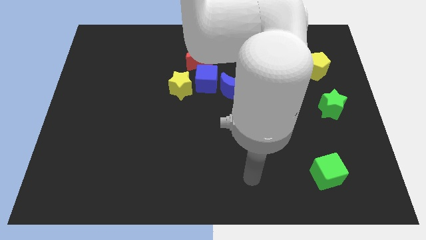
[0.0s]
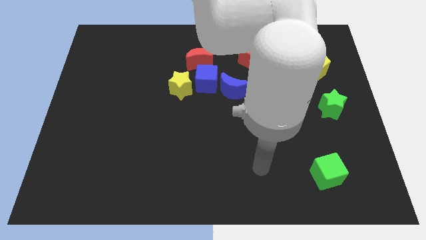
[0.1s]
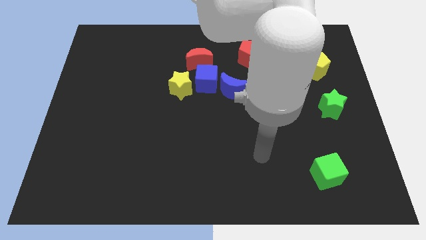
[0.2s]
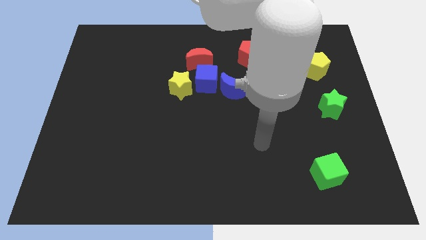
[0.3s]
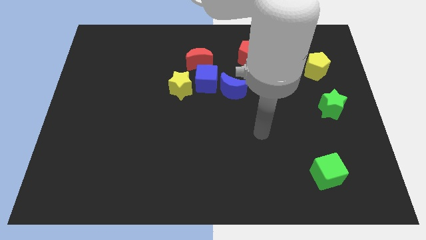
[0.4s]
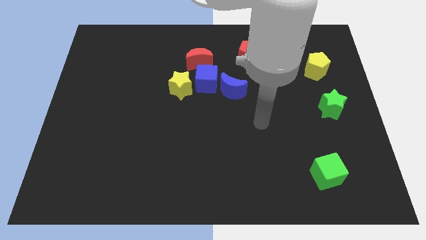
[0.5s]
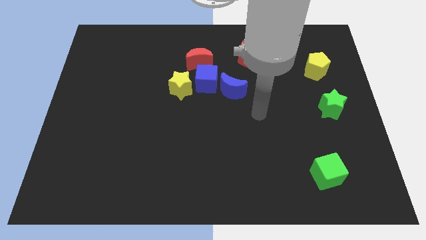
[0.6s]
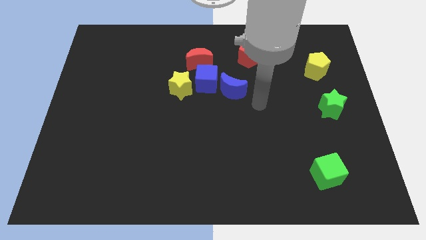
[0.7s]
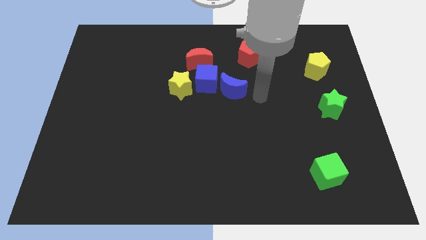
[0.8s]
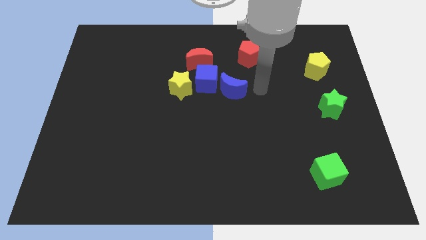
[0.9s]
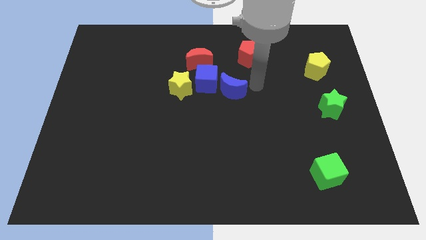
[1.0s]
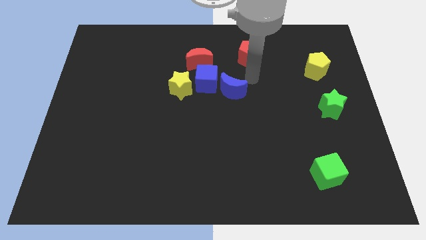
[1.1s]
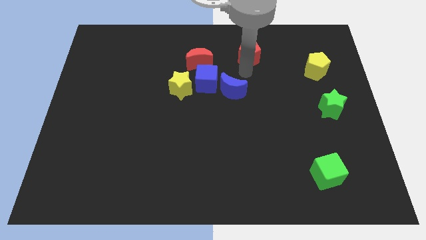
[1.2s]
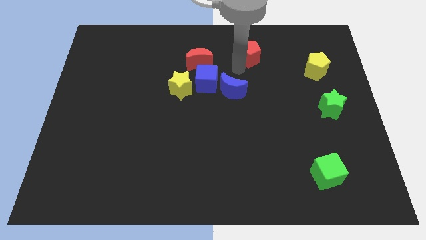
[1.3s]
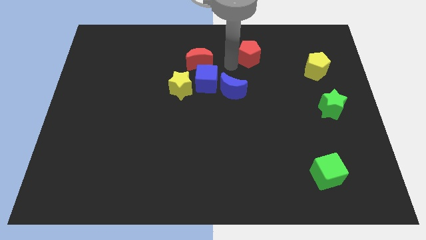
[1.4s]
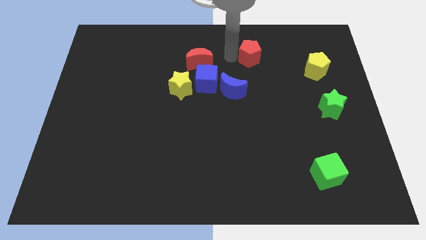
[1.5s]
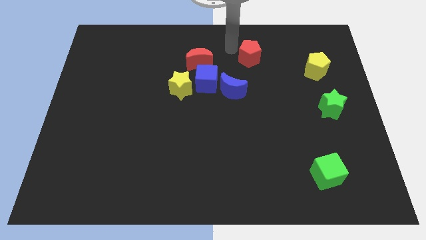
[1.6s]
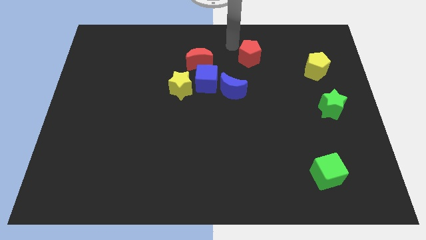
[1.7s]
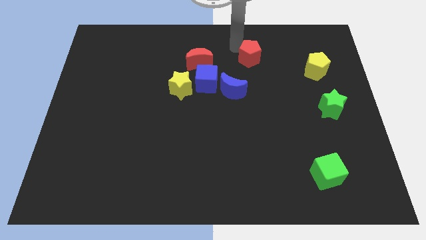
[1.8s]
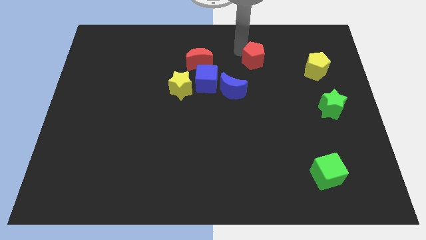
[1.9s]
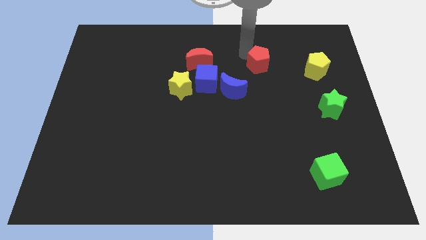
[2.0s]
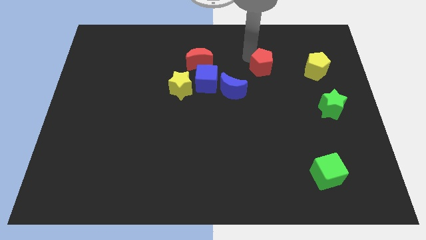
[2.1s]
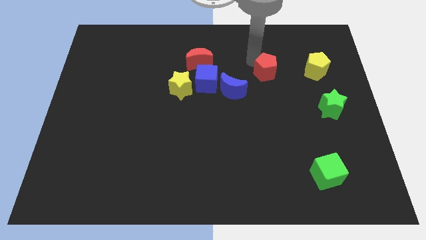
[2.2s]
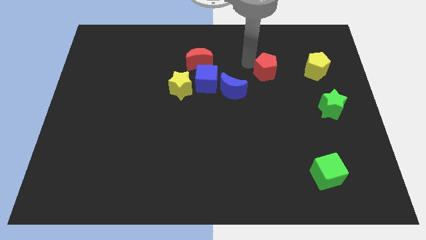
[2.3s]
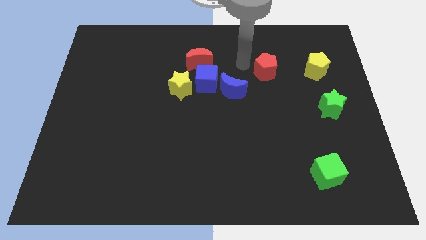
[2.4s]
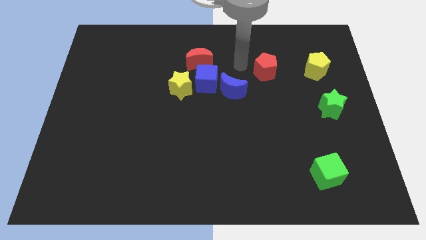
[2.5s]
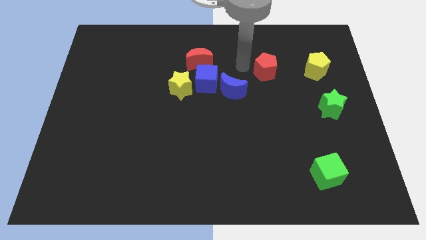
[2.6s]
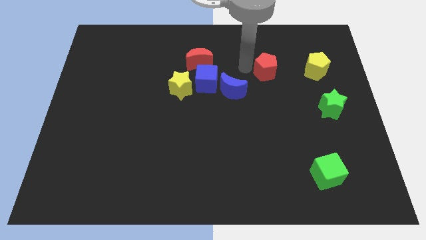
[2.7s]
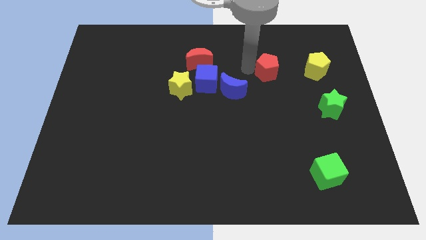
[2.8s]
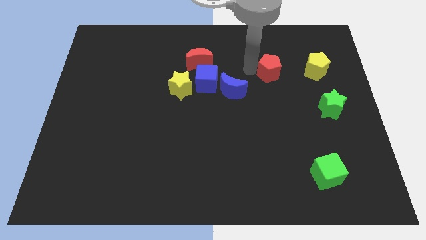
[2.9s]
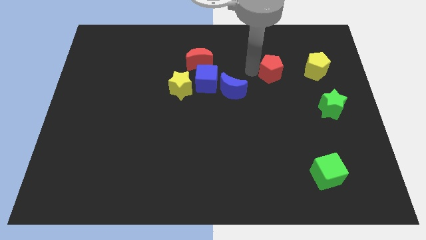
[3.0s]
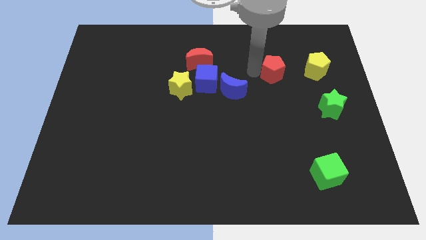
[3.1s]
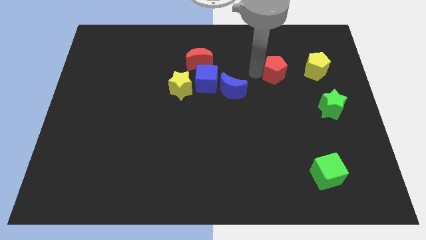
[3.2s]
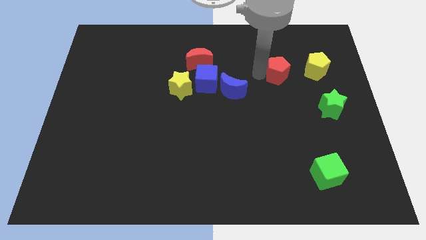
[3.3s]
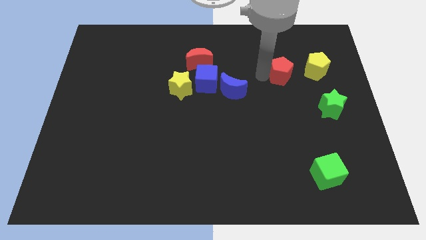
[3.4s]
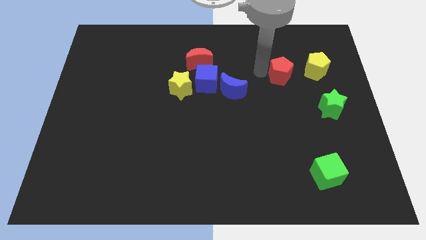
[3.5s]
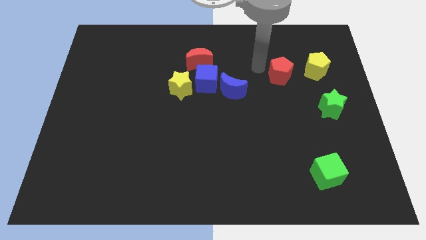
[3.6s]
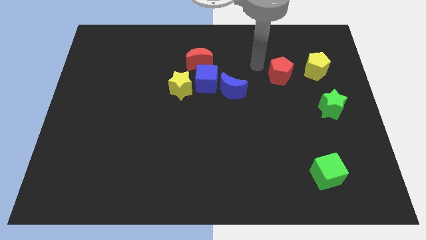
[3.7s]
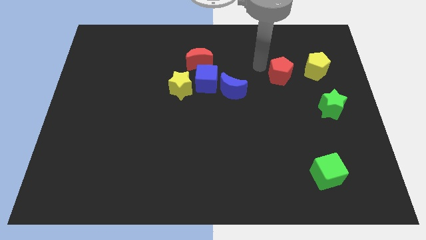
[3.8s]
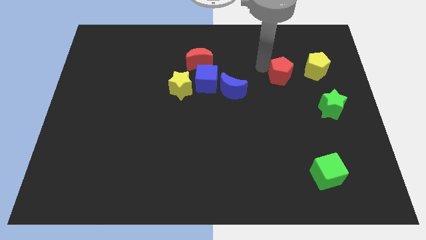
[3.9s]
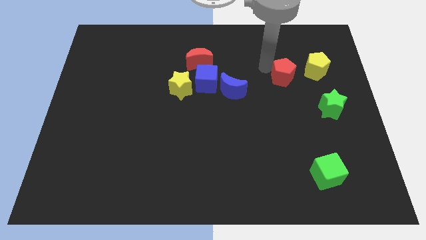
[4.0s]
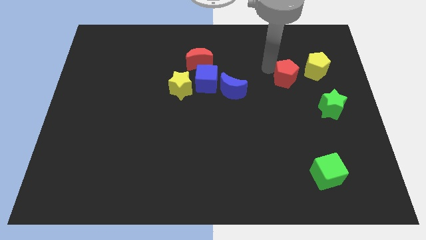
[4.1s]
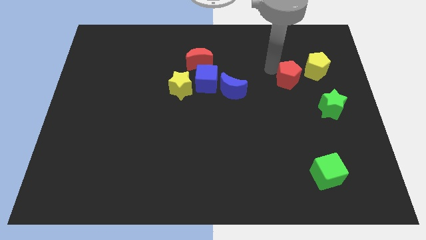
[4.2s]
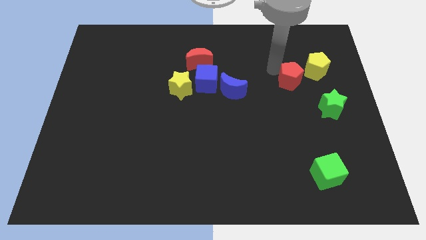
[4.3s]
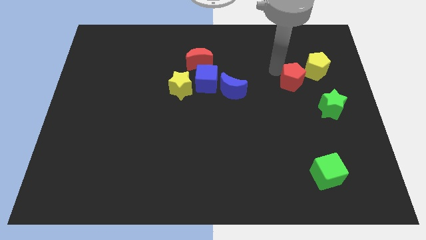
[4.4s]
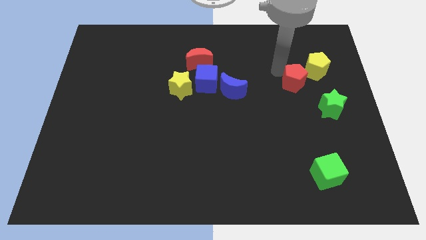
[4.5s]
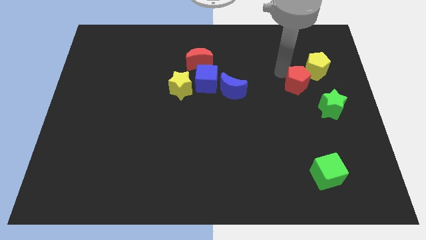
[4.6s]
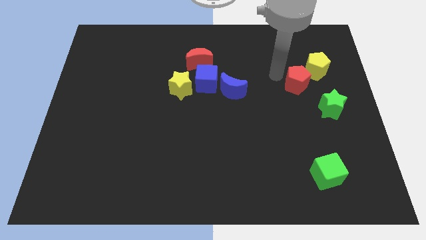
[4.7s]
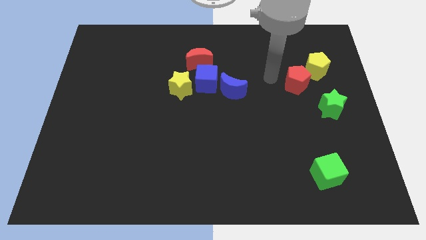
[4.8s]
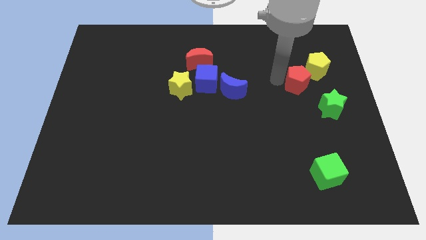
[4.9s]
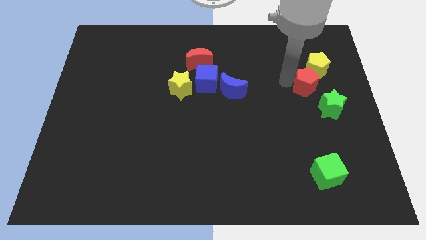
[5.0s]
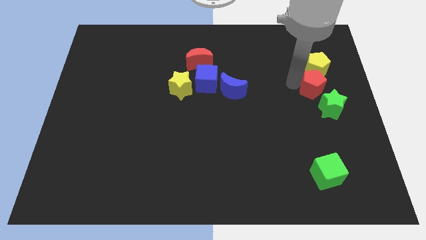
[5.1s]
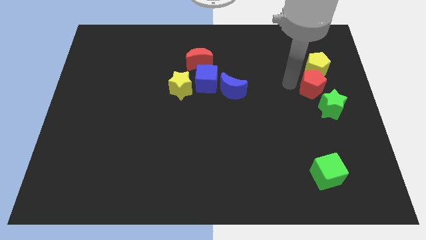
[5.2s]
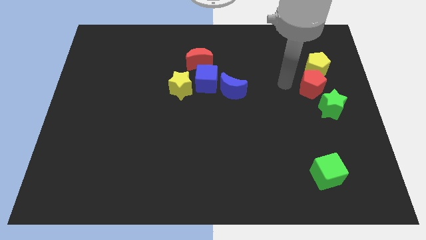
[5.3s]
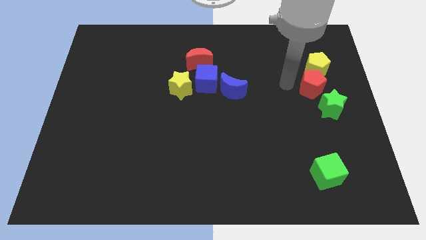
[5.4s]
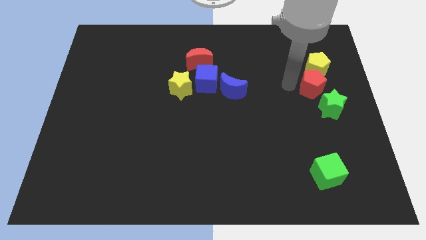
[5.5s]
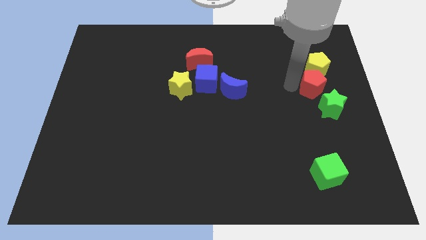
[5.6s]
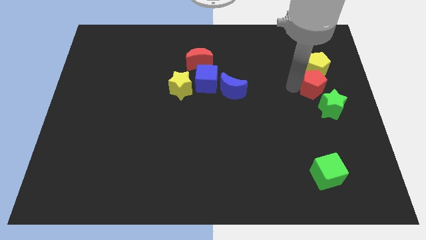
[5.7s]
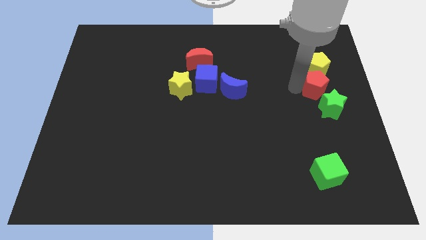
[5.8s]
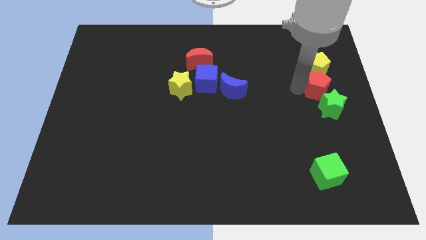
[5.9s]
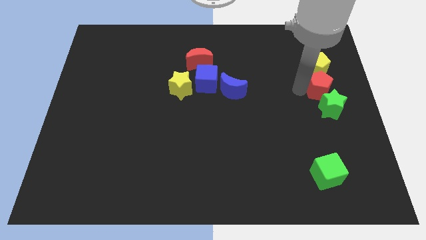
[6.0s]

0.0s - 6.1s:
slide the red pentagon to the center right

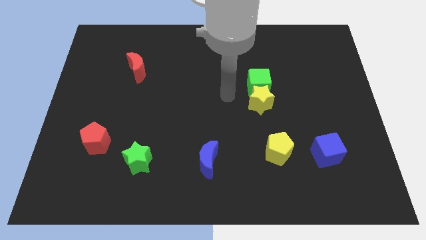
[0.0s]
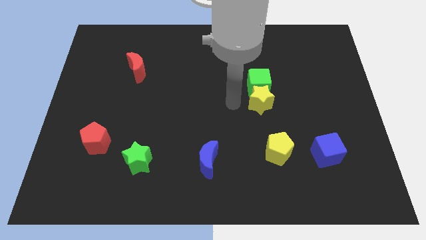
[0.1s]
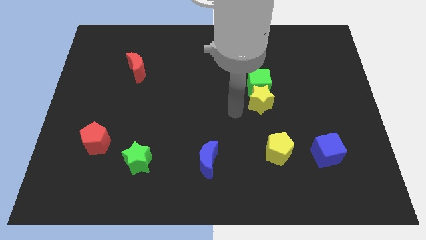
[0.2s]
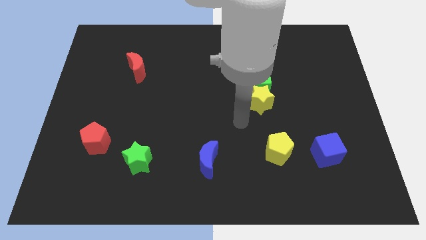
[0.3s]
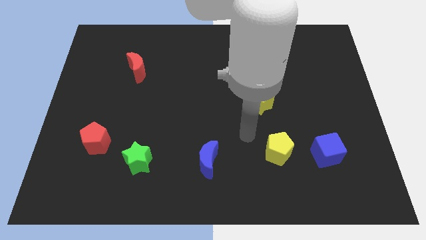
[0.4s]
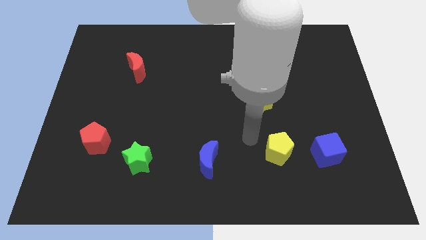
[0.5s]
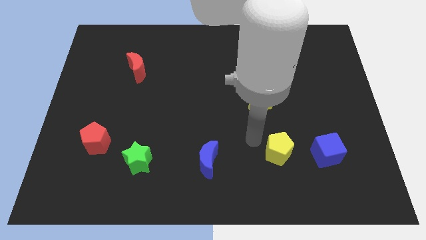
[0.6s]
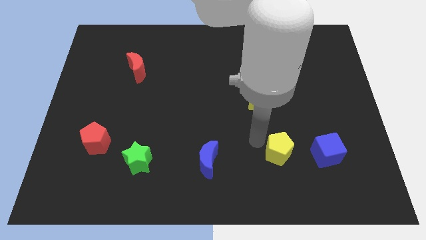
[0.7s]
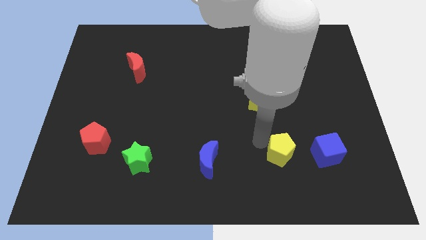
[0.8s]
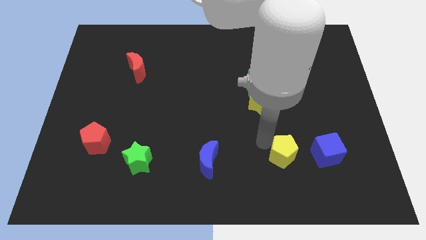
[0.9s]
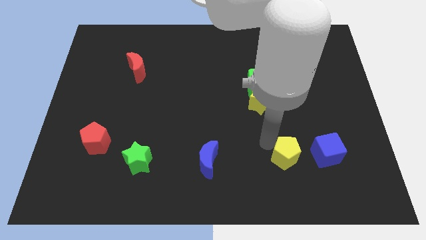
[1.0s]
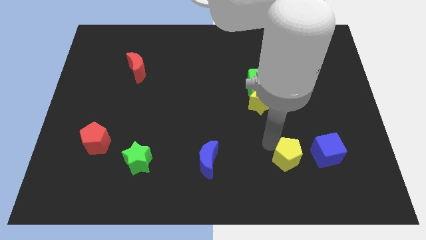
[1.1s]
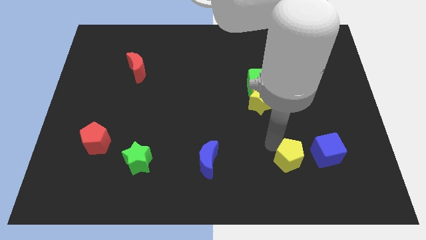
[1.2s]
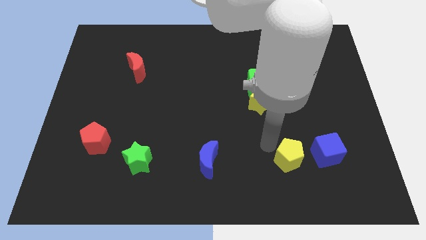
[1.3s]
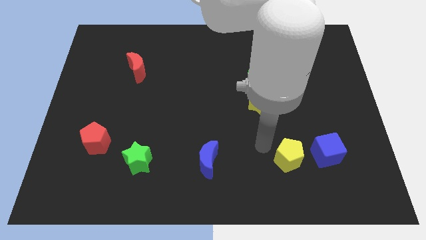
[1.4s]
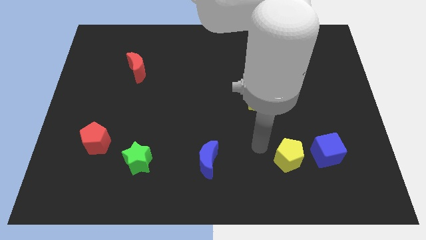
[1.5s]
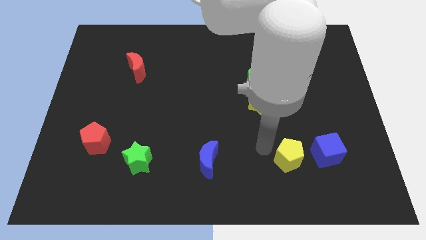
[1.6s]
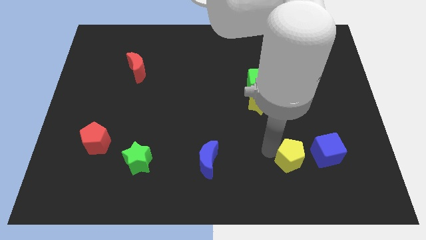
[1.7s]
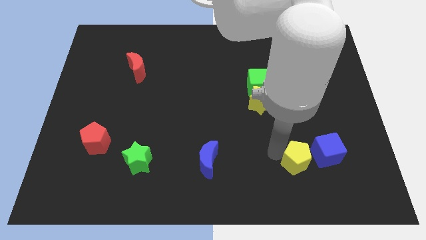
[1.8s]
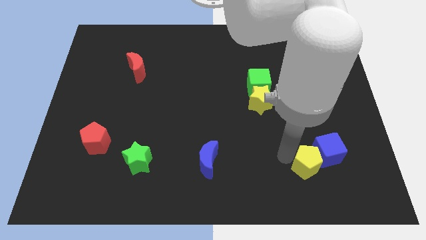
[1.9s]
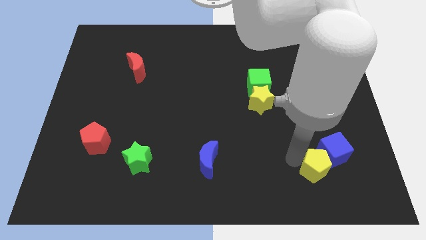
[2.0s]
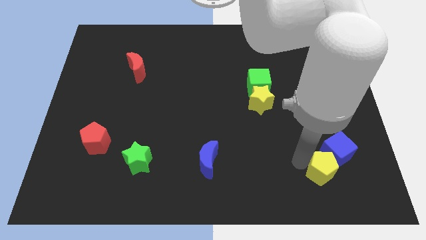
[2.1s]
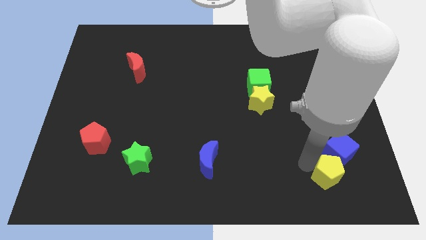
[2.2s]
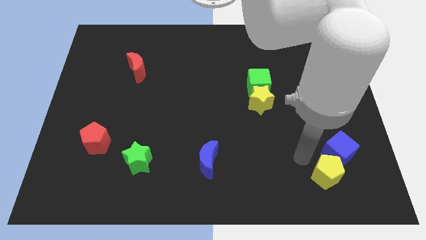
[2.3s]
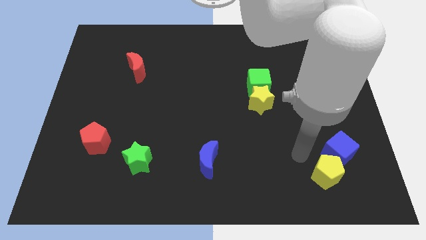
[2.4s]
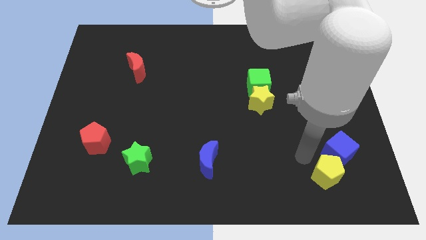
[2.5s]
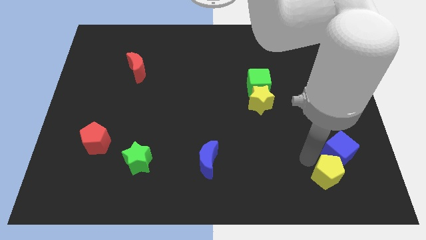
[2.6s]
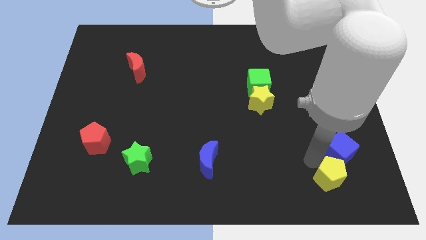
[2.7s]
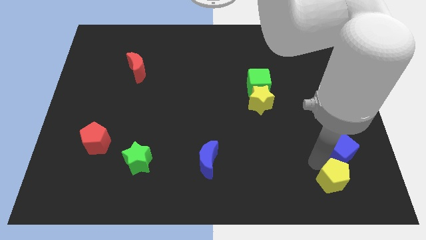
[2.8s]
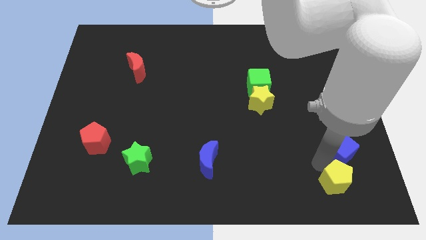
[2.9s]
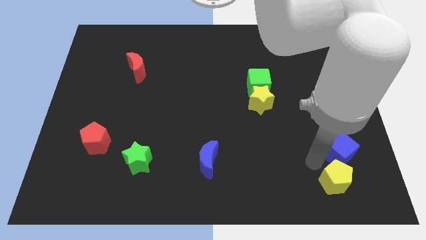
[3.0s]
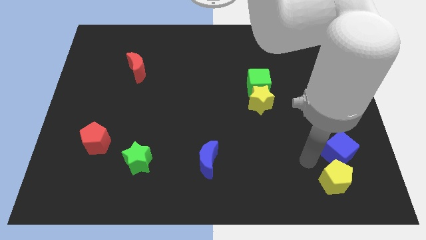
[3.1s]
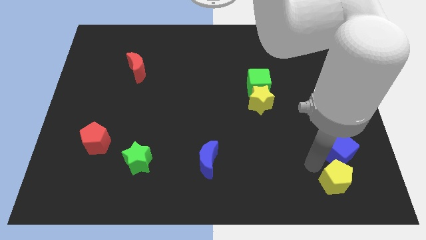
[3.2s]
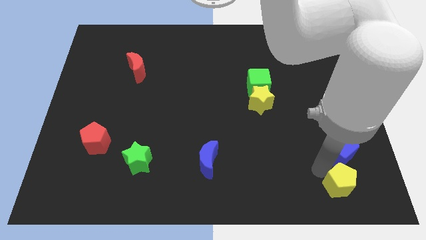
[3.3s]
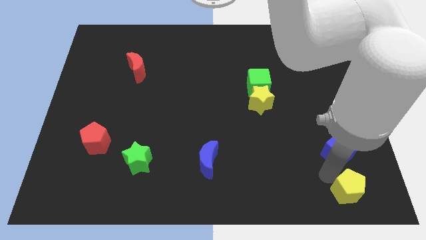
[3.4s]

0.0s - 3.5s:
put the yellow pentagon to the lower right corner
